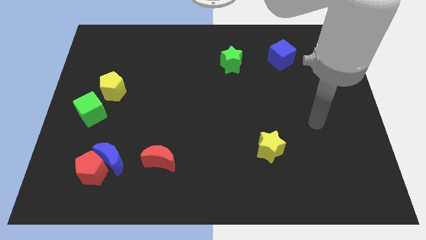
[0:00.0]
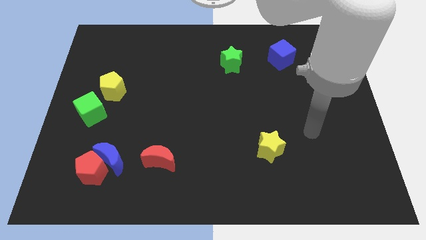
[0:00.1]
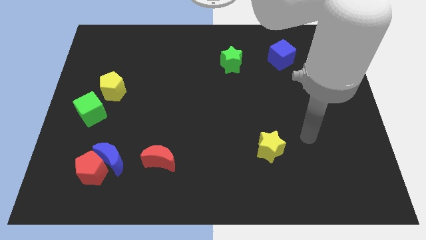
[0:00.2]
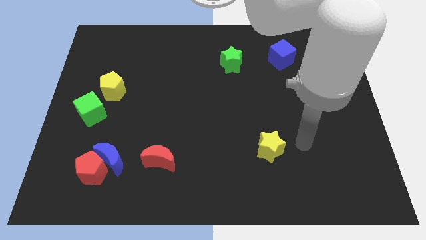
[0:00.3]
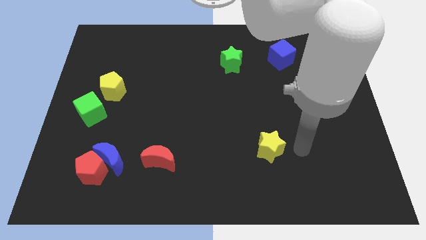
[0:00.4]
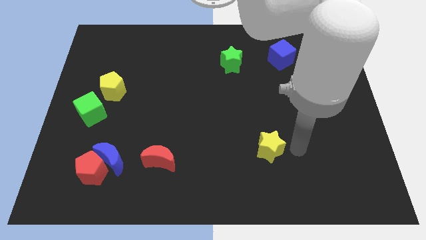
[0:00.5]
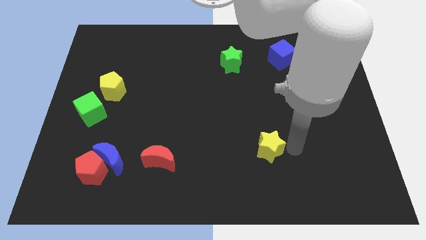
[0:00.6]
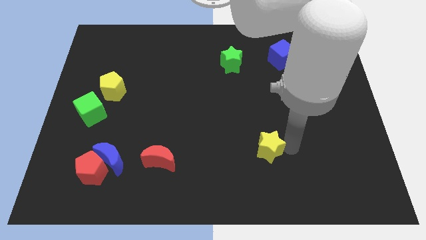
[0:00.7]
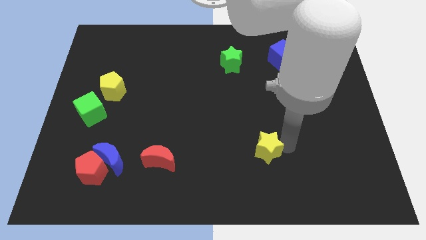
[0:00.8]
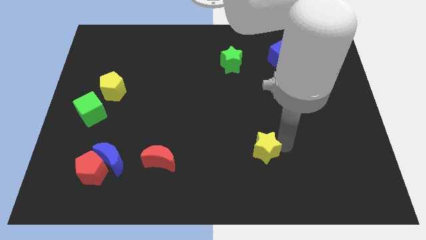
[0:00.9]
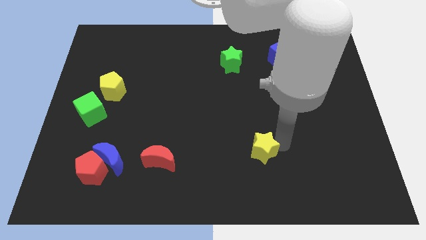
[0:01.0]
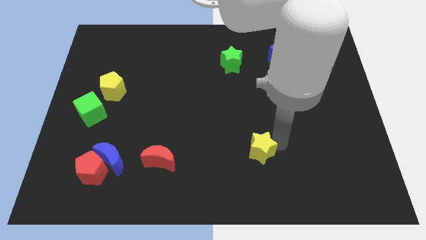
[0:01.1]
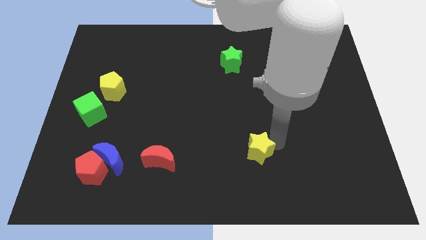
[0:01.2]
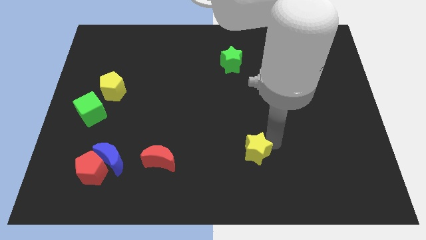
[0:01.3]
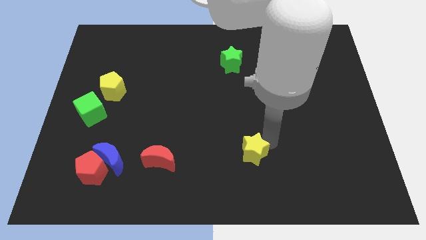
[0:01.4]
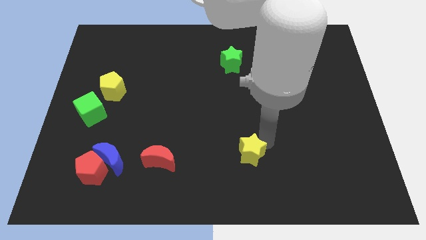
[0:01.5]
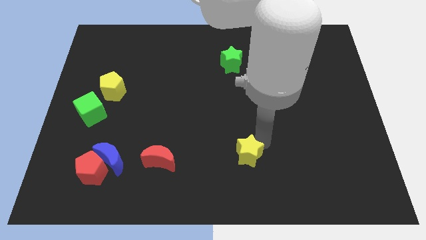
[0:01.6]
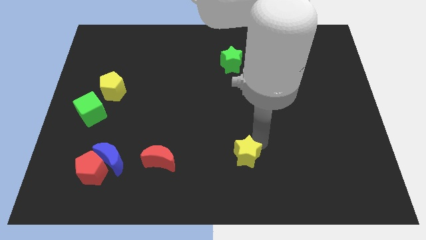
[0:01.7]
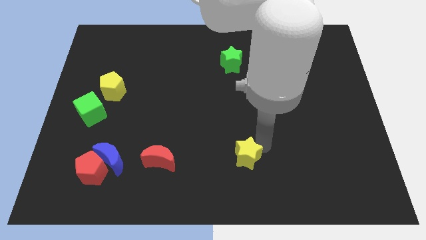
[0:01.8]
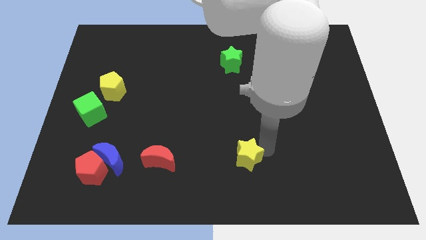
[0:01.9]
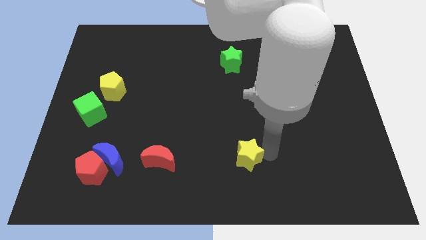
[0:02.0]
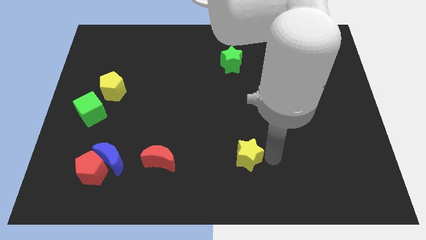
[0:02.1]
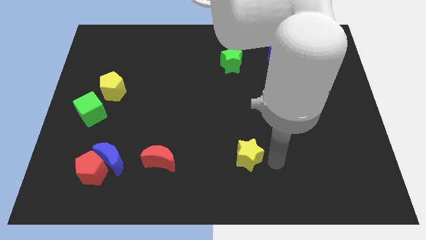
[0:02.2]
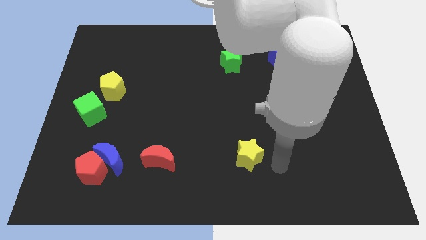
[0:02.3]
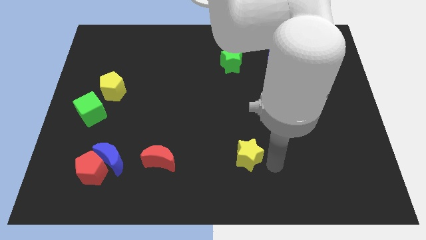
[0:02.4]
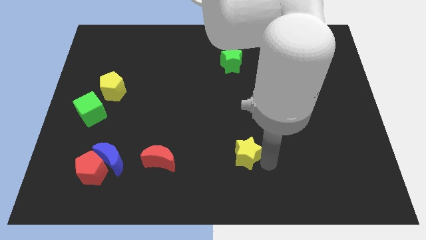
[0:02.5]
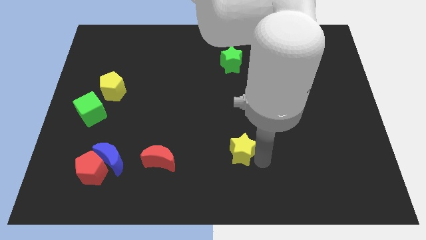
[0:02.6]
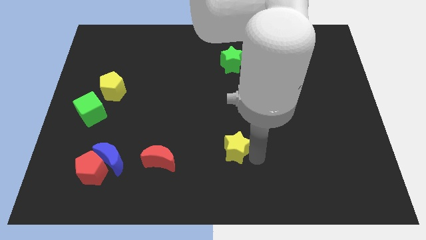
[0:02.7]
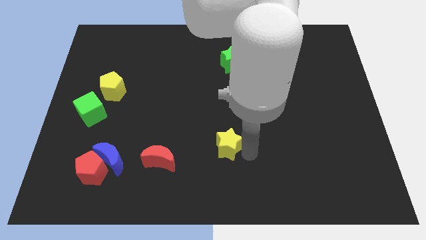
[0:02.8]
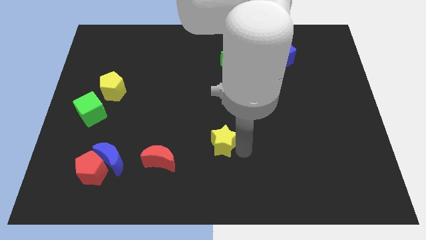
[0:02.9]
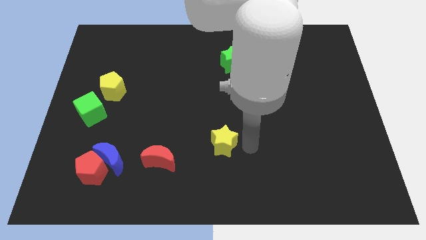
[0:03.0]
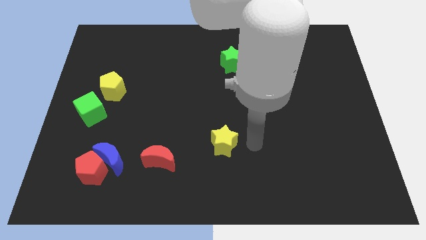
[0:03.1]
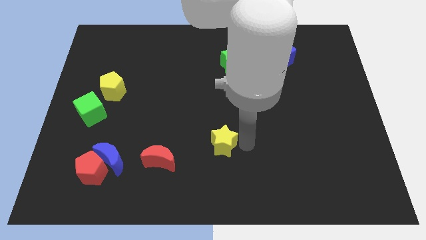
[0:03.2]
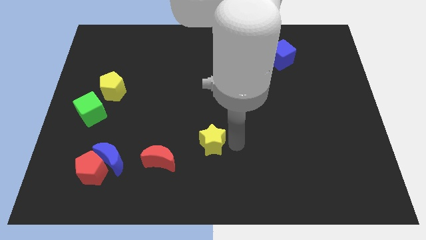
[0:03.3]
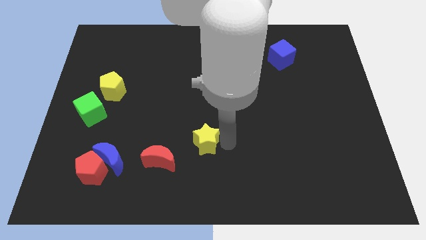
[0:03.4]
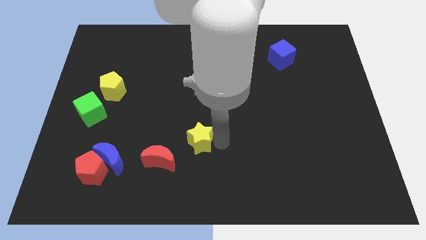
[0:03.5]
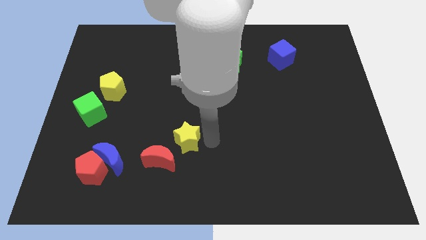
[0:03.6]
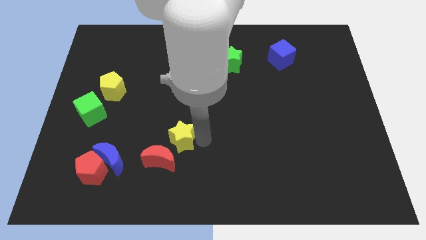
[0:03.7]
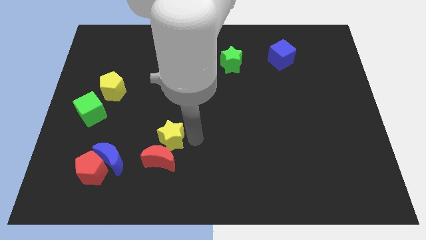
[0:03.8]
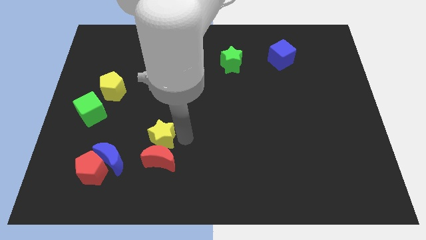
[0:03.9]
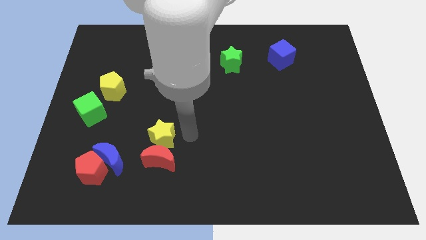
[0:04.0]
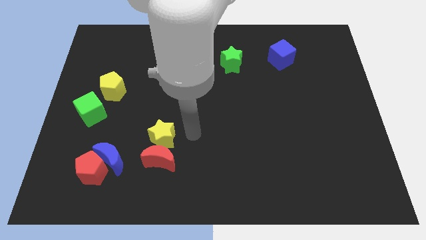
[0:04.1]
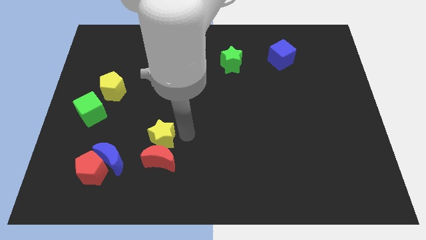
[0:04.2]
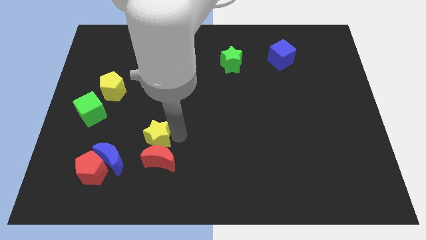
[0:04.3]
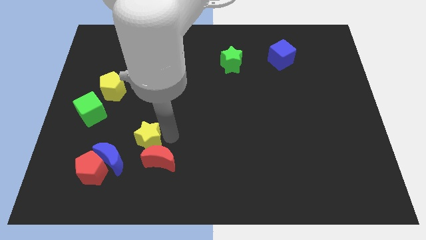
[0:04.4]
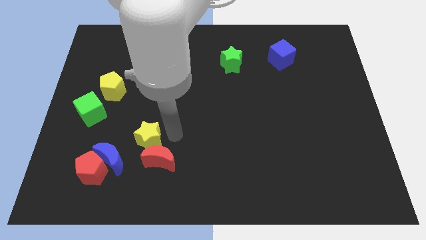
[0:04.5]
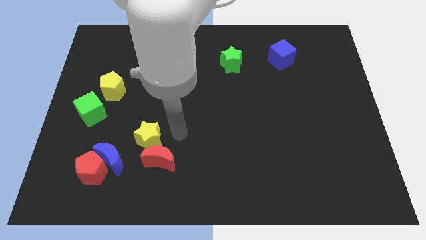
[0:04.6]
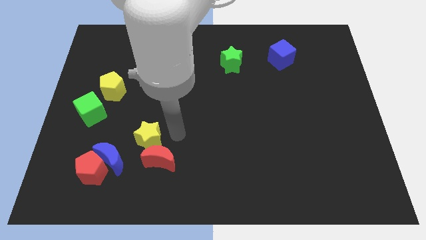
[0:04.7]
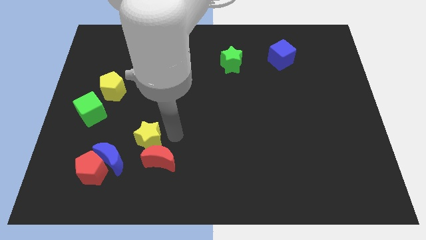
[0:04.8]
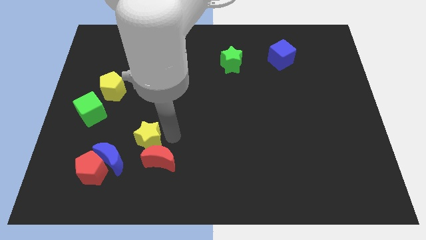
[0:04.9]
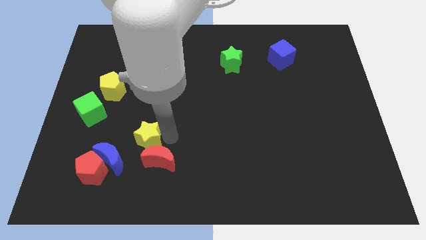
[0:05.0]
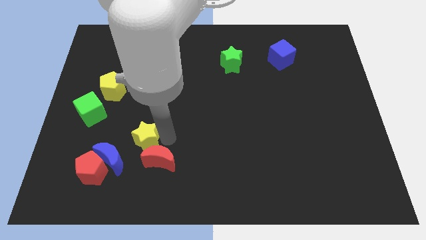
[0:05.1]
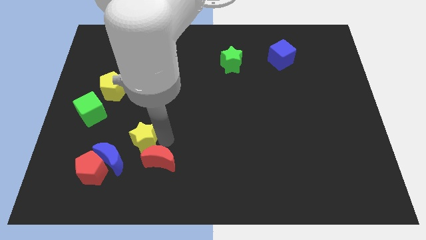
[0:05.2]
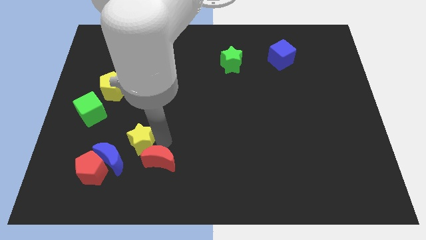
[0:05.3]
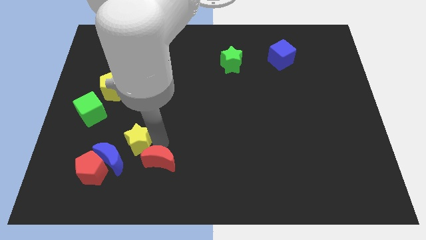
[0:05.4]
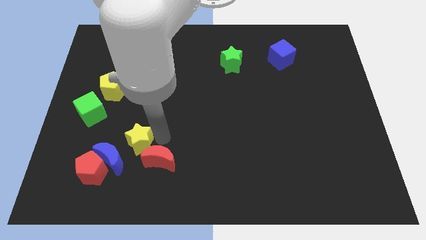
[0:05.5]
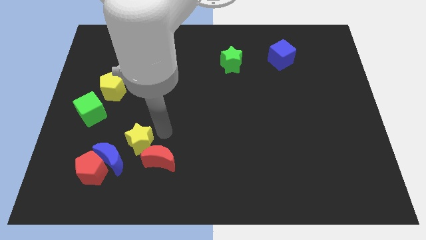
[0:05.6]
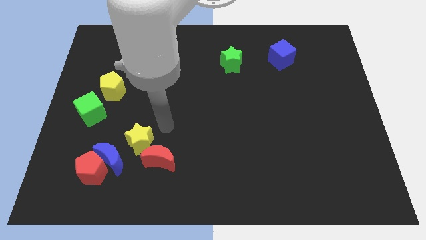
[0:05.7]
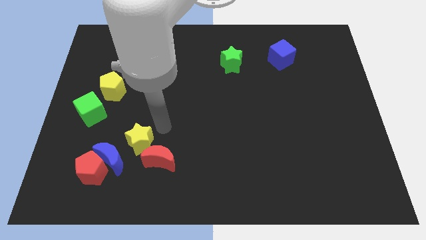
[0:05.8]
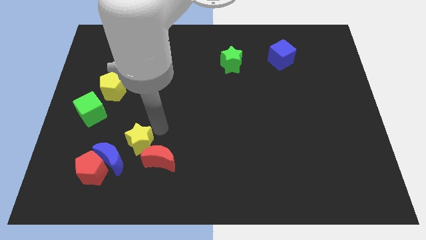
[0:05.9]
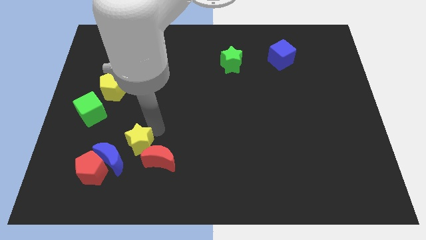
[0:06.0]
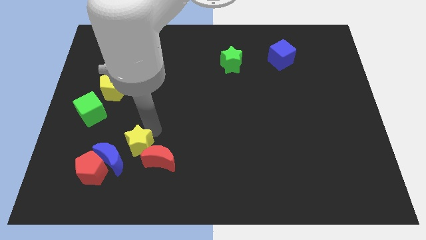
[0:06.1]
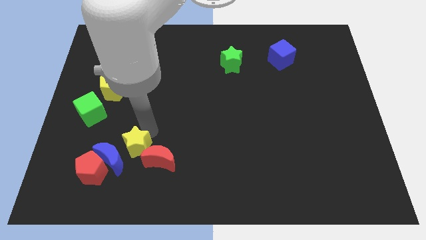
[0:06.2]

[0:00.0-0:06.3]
slide the yellow star to the blue moon

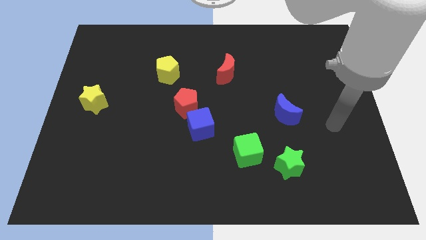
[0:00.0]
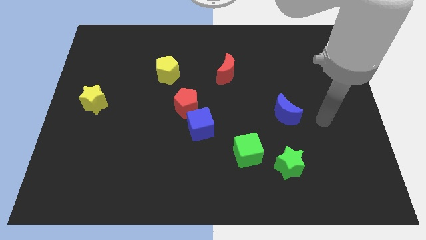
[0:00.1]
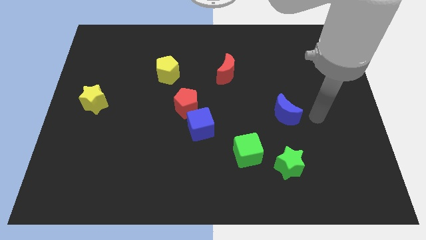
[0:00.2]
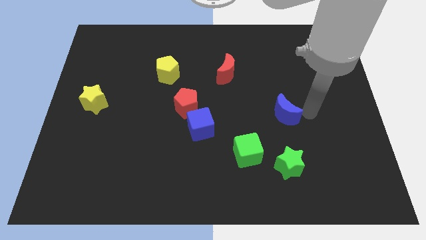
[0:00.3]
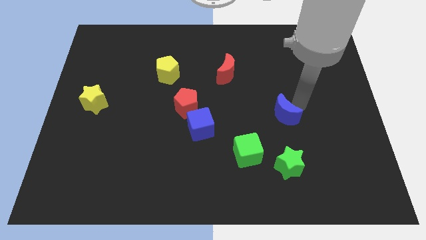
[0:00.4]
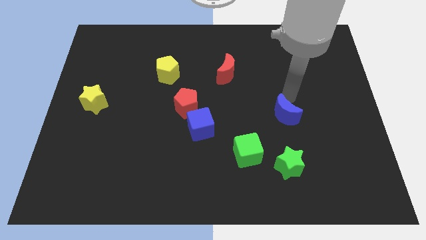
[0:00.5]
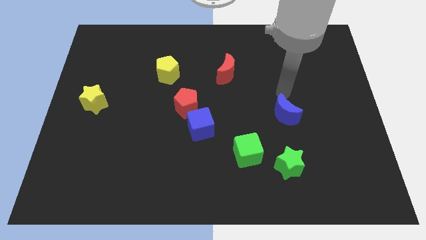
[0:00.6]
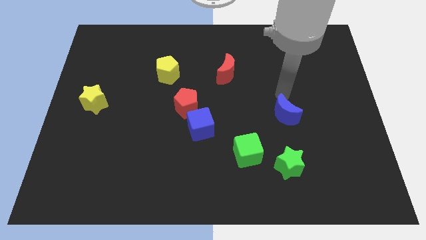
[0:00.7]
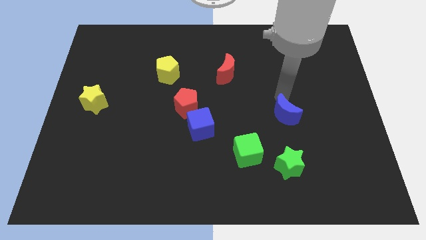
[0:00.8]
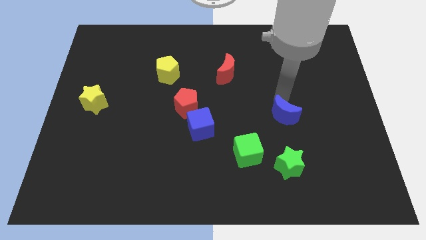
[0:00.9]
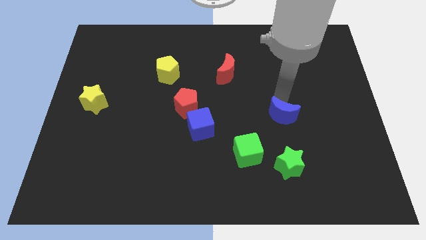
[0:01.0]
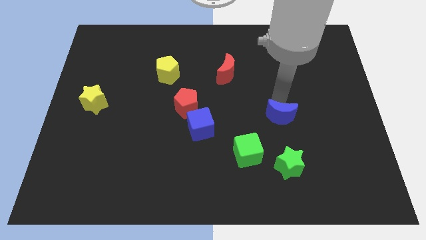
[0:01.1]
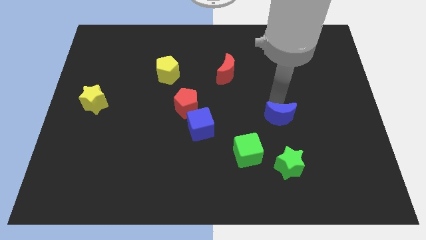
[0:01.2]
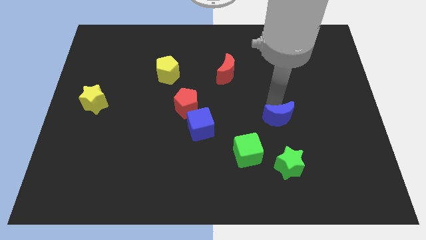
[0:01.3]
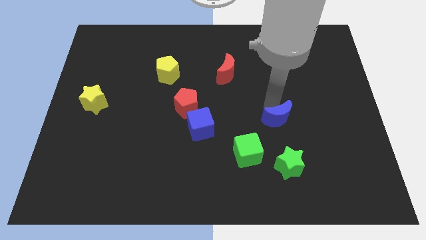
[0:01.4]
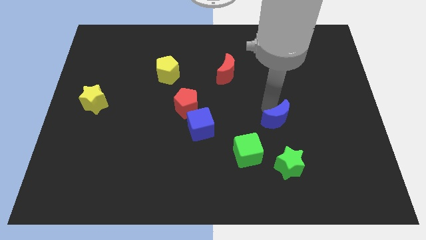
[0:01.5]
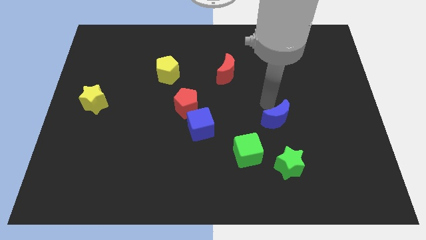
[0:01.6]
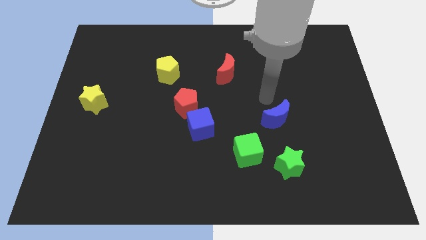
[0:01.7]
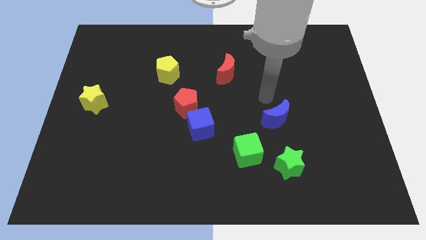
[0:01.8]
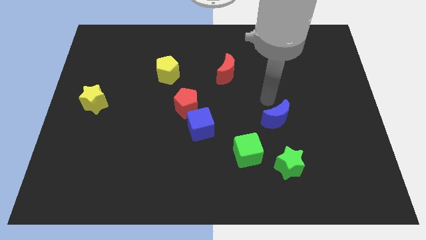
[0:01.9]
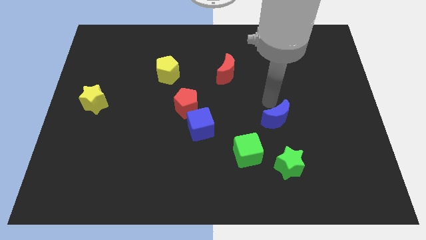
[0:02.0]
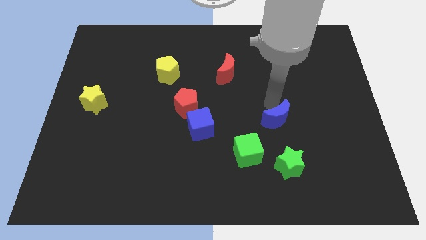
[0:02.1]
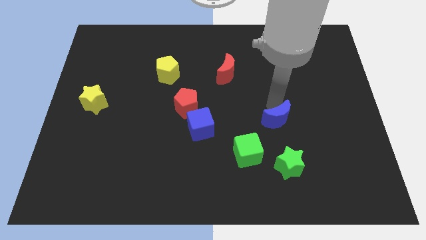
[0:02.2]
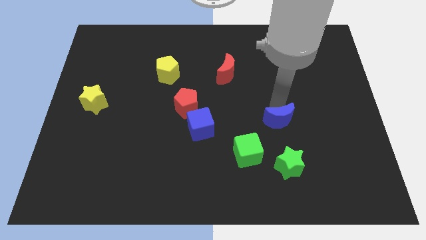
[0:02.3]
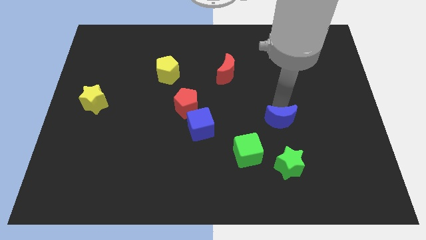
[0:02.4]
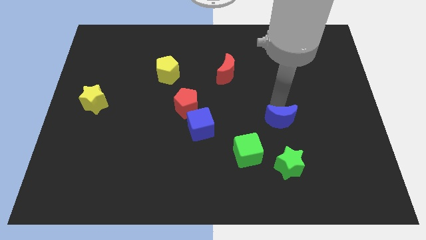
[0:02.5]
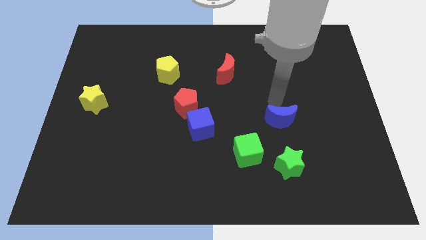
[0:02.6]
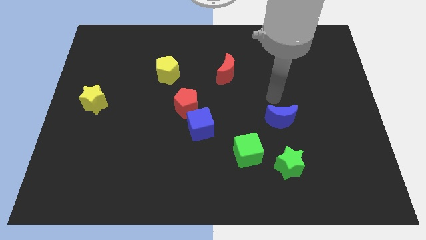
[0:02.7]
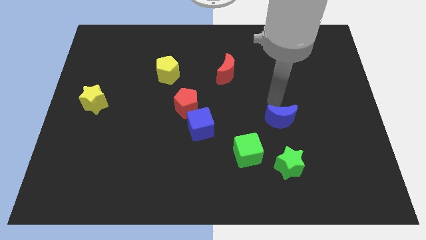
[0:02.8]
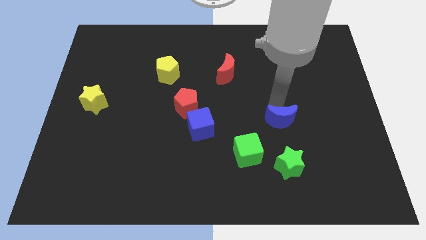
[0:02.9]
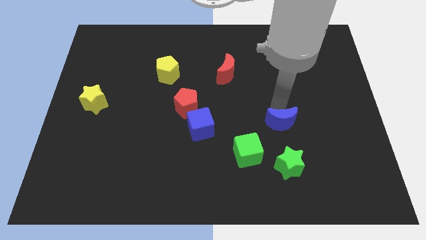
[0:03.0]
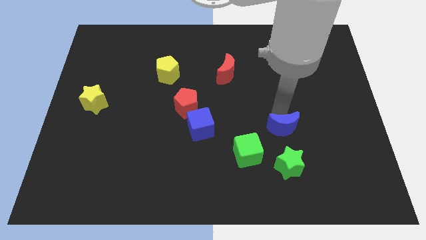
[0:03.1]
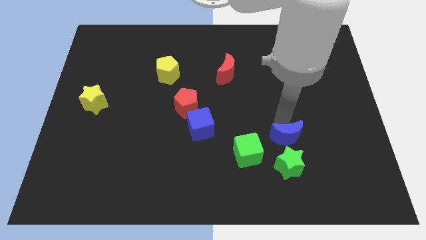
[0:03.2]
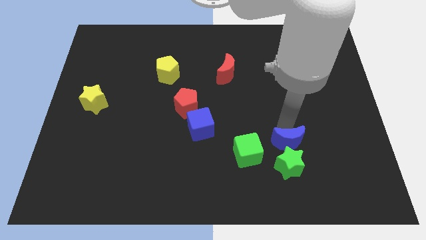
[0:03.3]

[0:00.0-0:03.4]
slide the blue moon towards the green star
